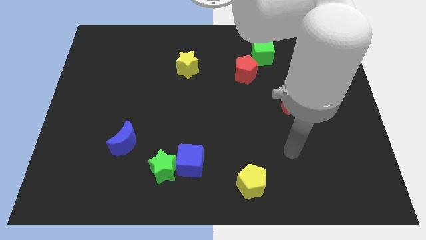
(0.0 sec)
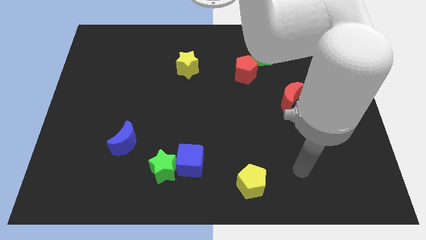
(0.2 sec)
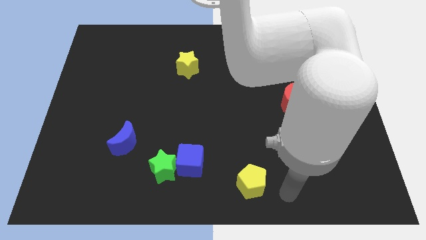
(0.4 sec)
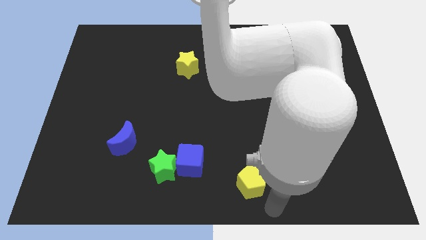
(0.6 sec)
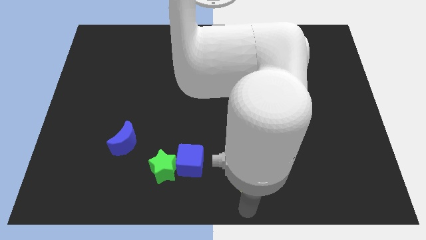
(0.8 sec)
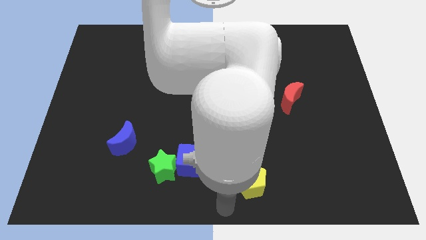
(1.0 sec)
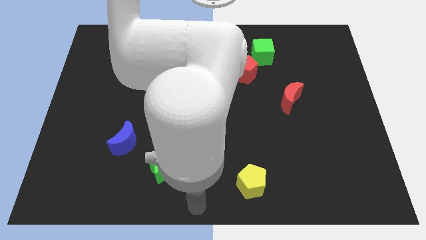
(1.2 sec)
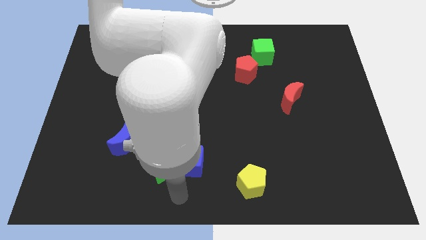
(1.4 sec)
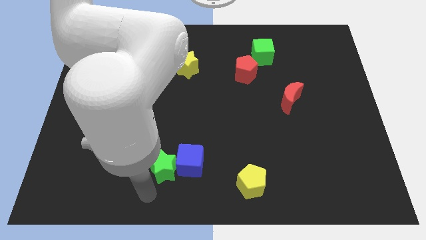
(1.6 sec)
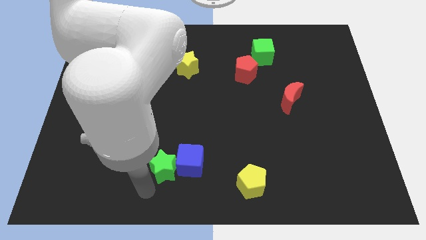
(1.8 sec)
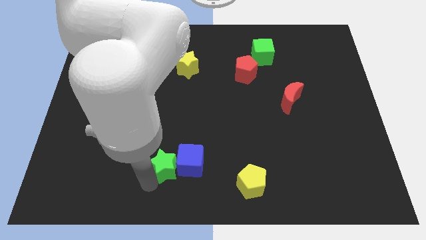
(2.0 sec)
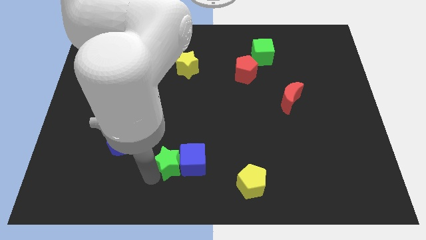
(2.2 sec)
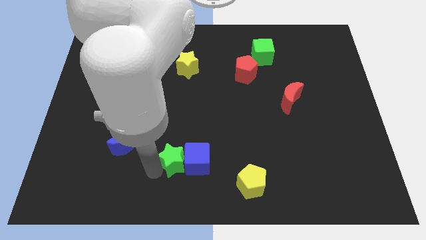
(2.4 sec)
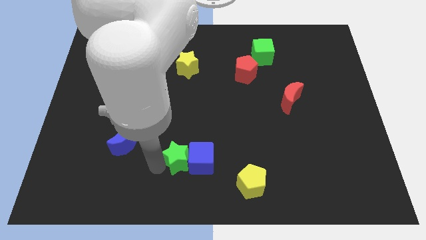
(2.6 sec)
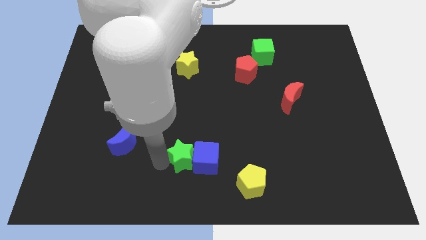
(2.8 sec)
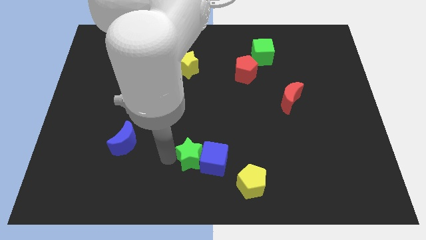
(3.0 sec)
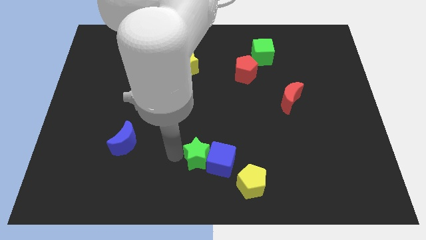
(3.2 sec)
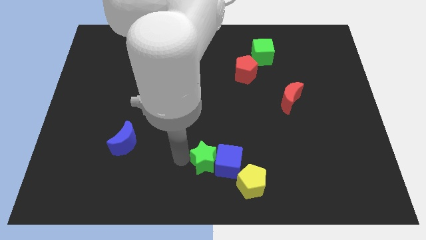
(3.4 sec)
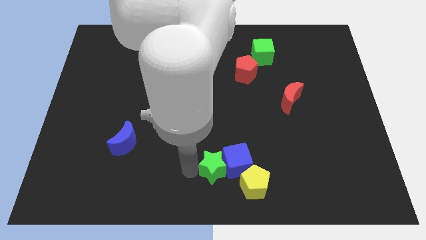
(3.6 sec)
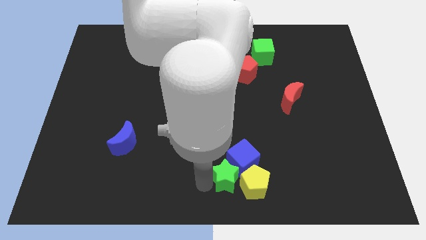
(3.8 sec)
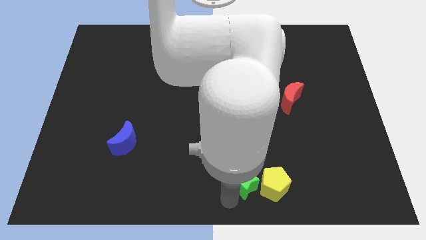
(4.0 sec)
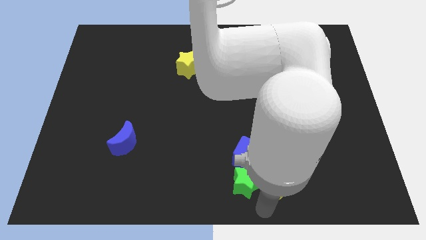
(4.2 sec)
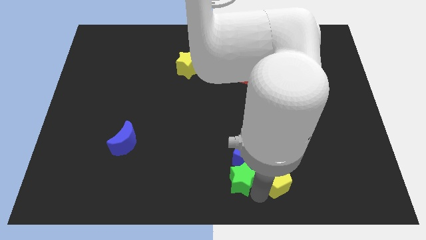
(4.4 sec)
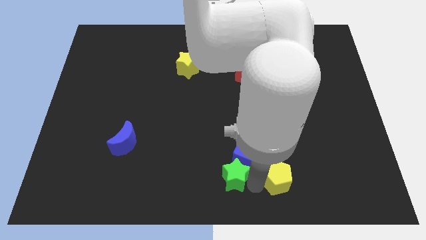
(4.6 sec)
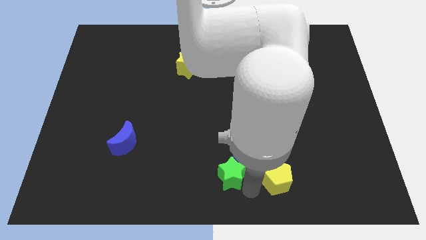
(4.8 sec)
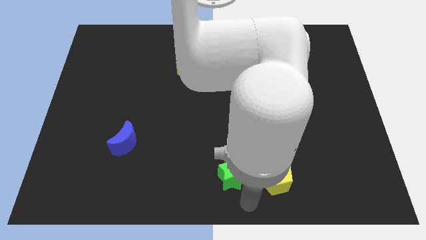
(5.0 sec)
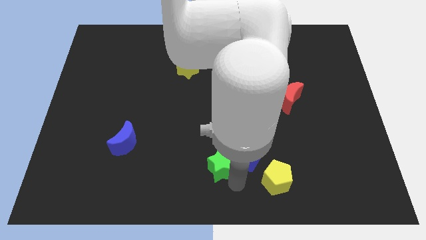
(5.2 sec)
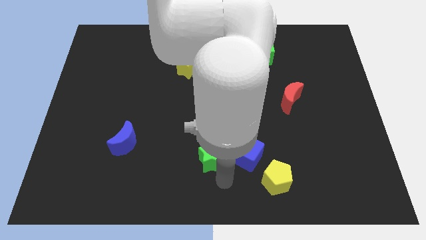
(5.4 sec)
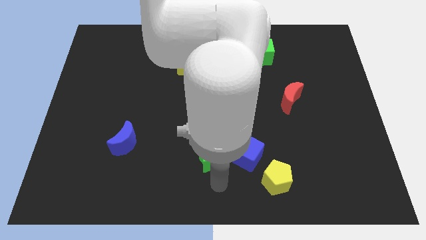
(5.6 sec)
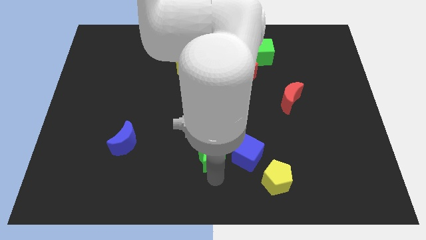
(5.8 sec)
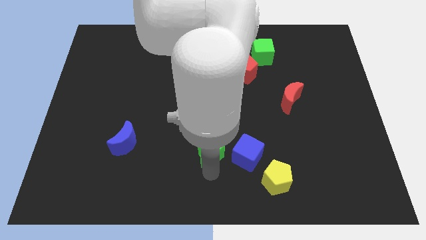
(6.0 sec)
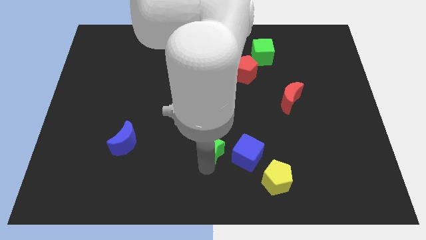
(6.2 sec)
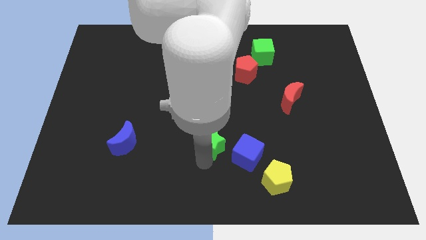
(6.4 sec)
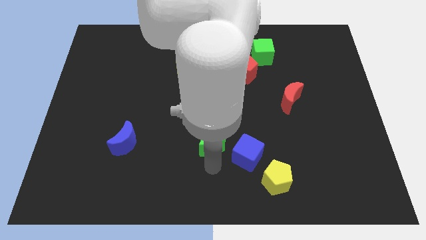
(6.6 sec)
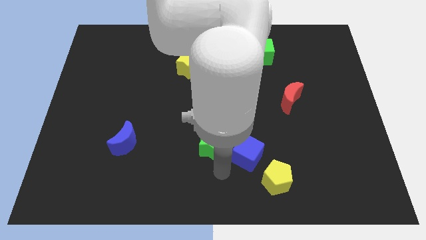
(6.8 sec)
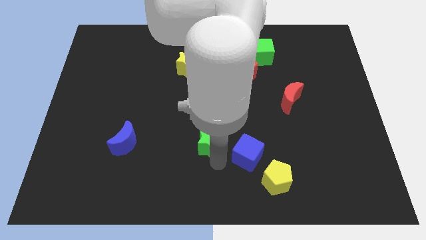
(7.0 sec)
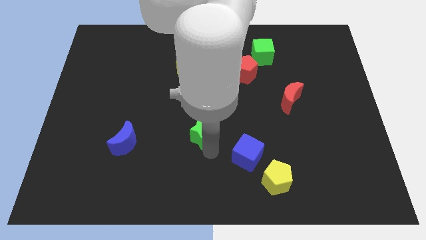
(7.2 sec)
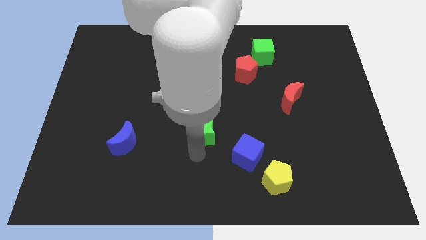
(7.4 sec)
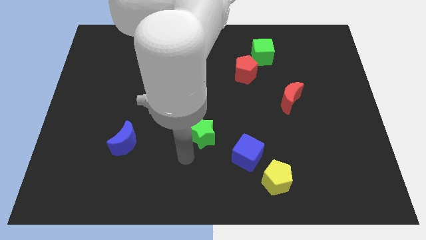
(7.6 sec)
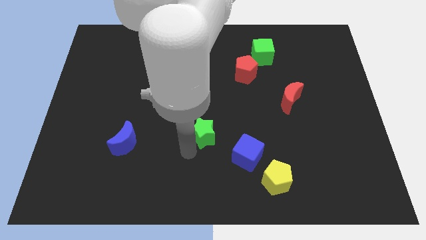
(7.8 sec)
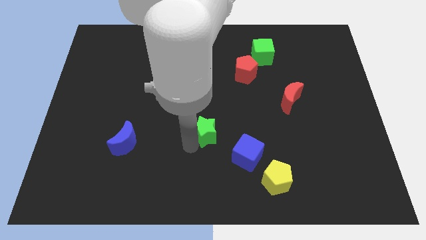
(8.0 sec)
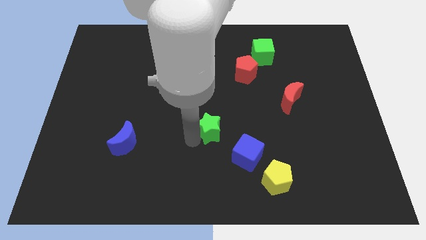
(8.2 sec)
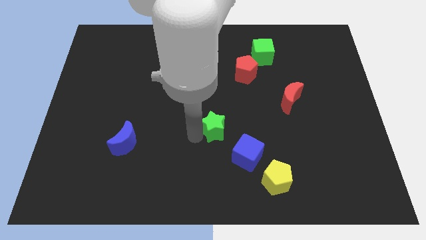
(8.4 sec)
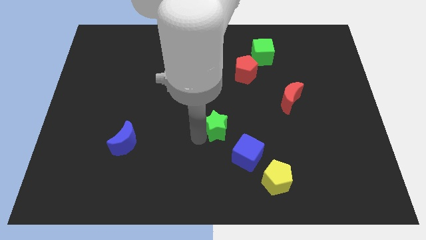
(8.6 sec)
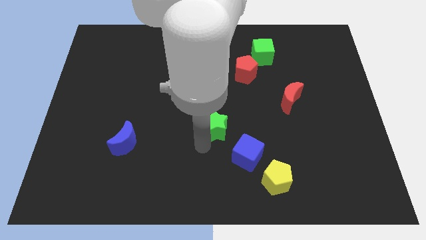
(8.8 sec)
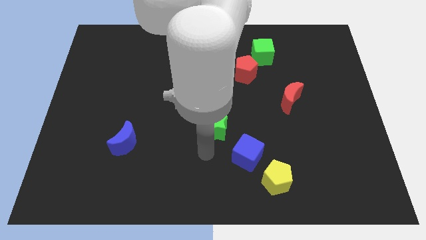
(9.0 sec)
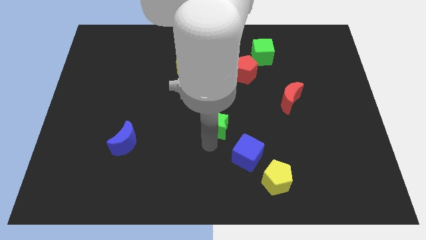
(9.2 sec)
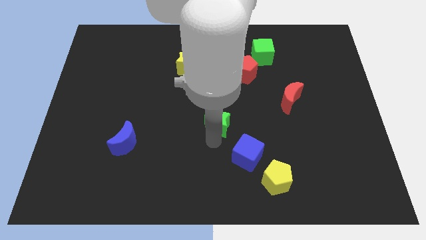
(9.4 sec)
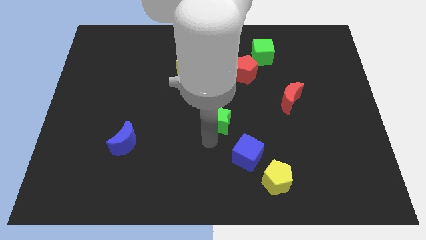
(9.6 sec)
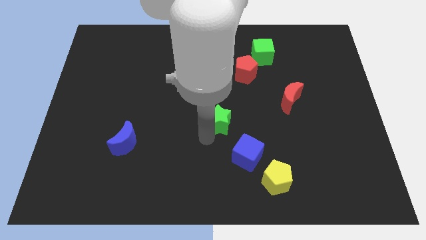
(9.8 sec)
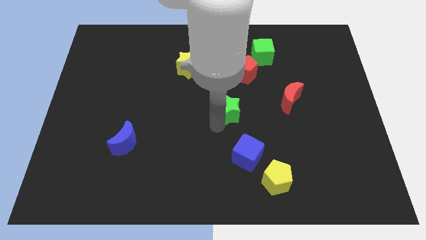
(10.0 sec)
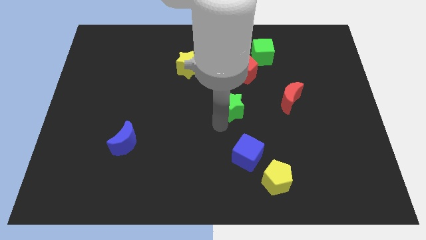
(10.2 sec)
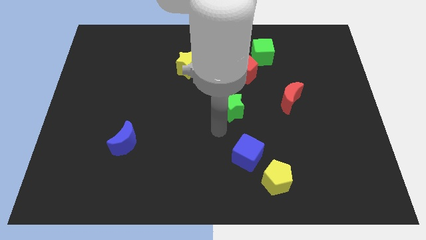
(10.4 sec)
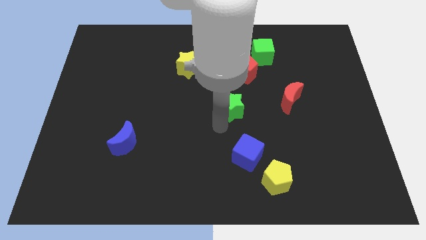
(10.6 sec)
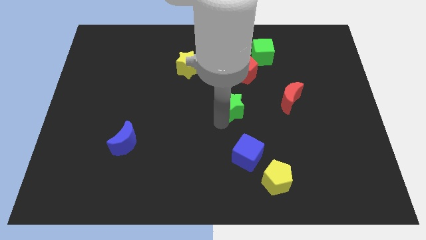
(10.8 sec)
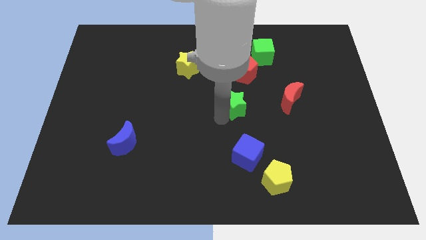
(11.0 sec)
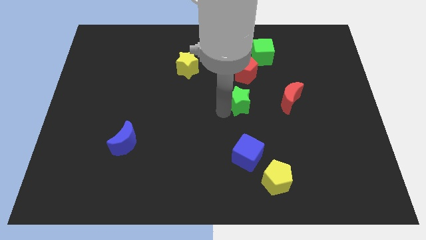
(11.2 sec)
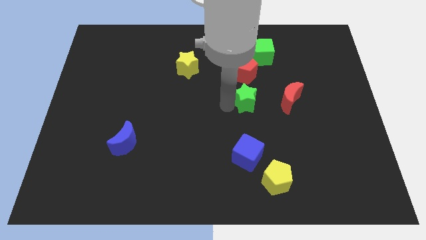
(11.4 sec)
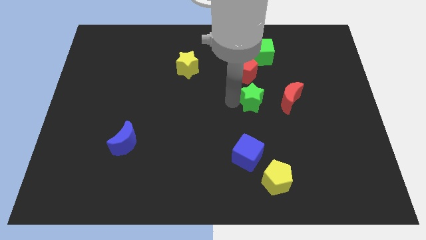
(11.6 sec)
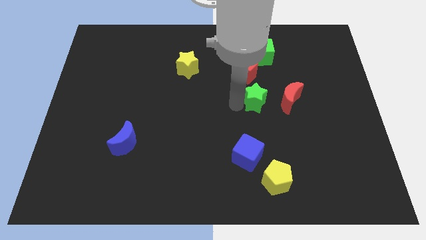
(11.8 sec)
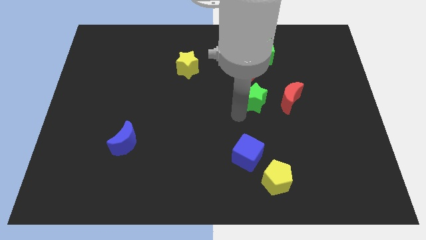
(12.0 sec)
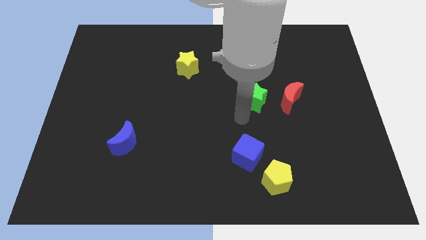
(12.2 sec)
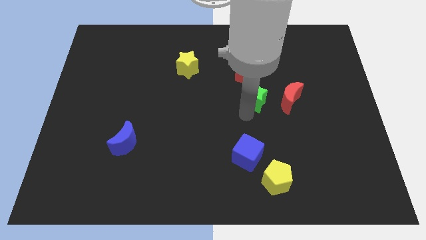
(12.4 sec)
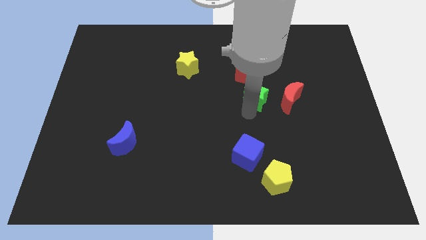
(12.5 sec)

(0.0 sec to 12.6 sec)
push the green star to the bottom side of the green cube

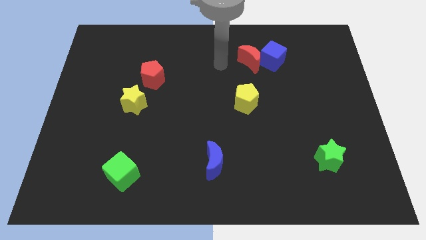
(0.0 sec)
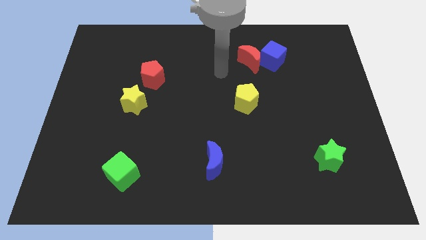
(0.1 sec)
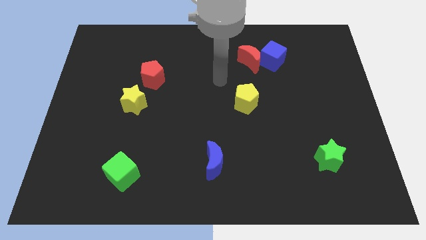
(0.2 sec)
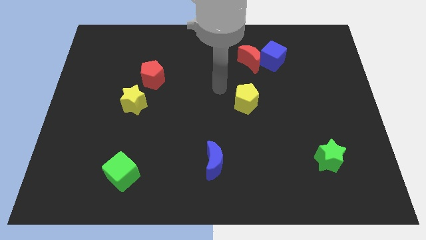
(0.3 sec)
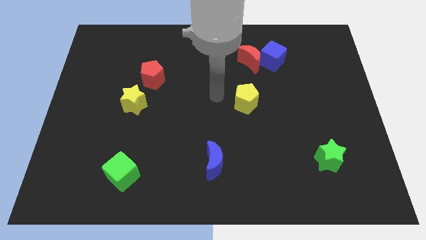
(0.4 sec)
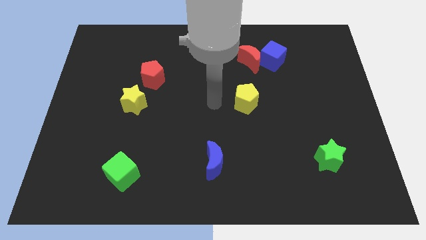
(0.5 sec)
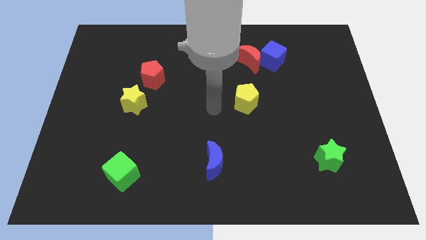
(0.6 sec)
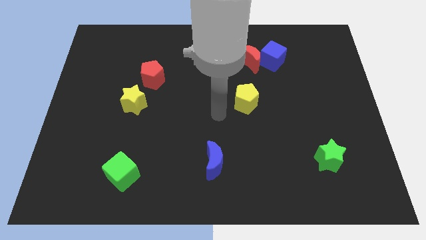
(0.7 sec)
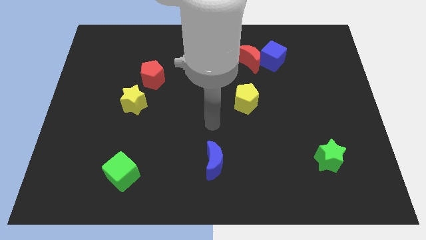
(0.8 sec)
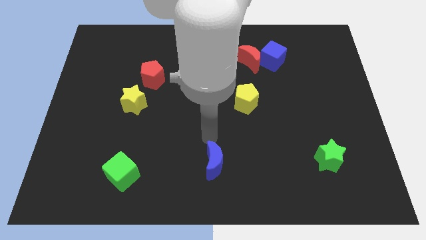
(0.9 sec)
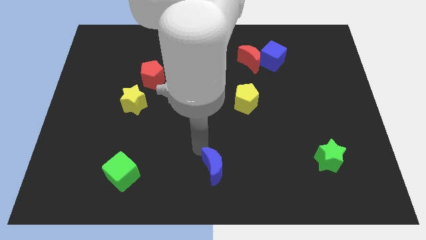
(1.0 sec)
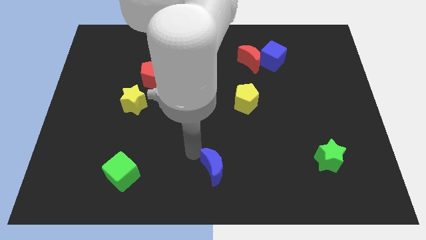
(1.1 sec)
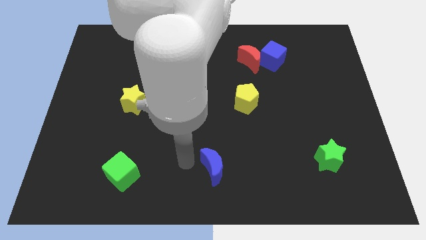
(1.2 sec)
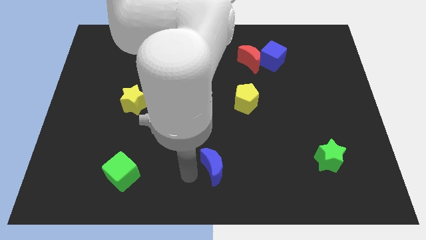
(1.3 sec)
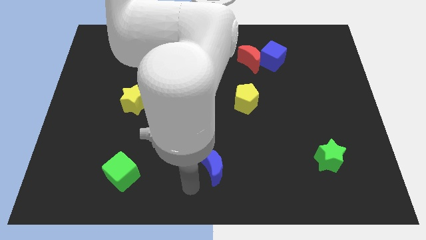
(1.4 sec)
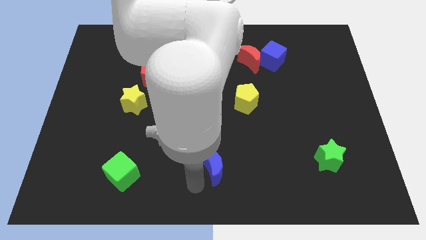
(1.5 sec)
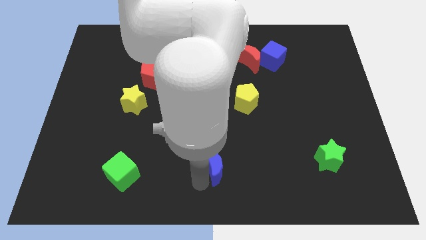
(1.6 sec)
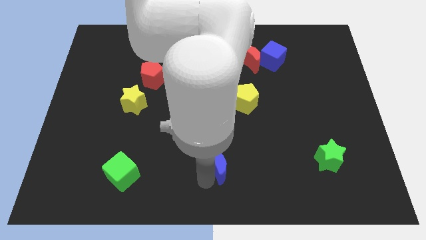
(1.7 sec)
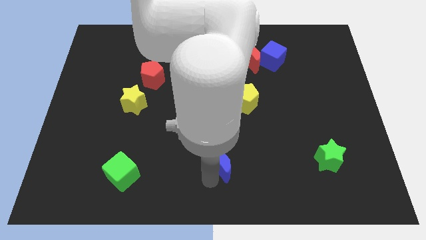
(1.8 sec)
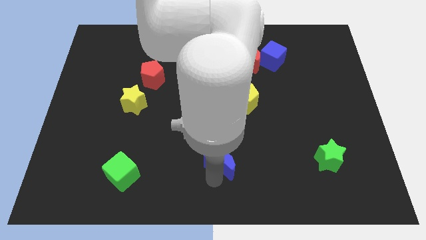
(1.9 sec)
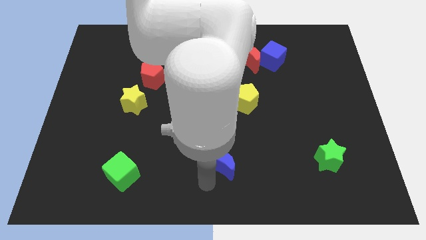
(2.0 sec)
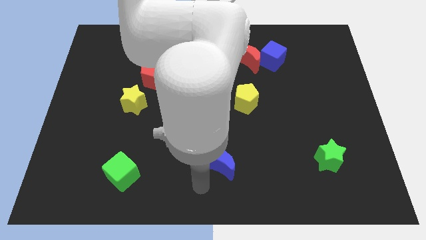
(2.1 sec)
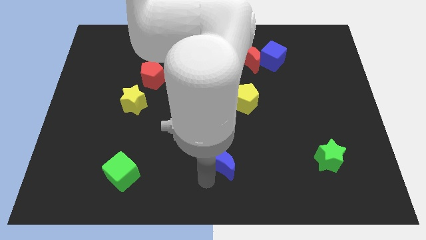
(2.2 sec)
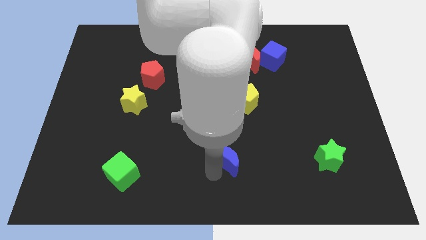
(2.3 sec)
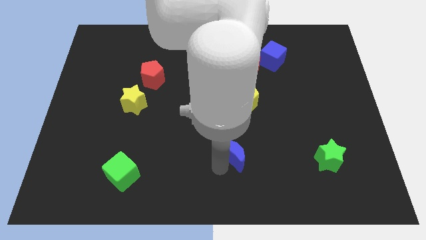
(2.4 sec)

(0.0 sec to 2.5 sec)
put the blue moon to the bottom of the yellow pentagon
